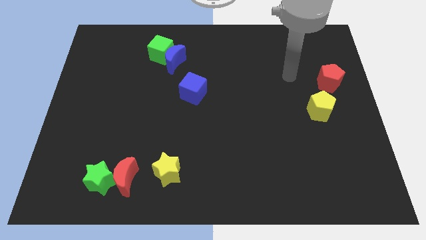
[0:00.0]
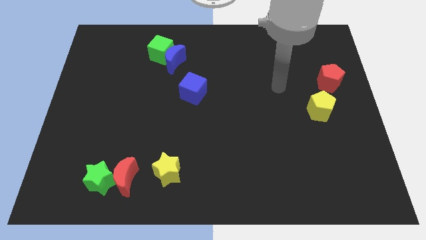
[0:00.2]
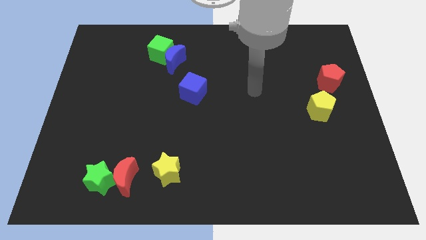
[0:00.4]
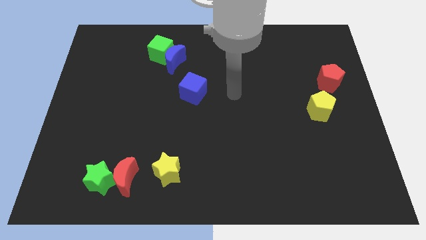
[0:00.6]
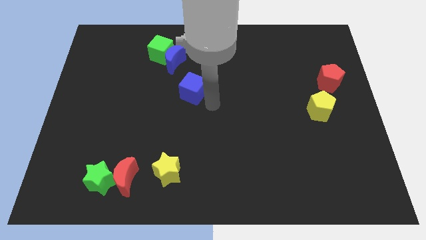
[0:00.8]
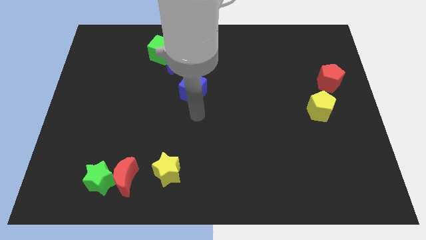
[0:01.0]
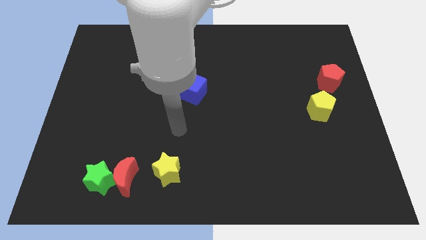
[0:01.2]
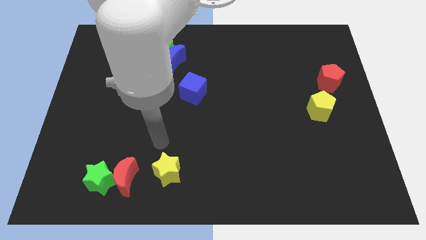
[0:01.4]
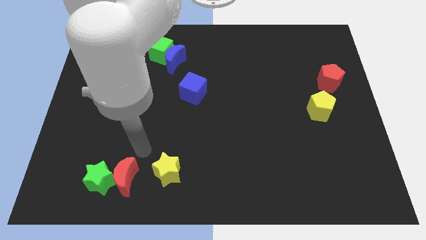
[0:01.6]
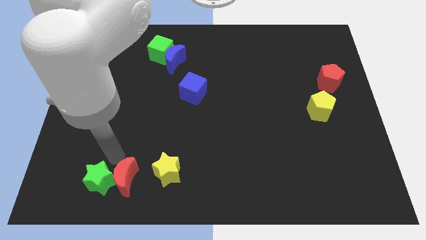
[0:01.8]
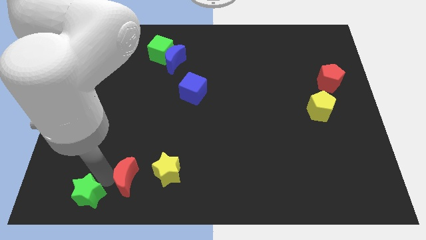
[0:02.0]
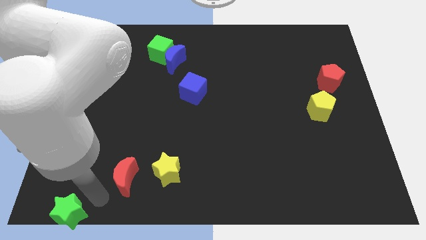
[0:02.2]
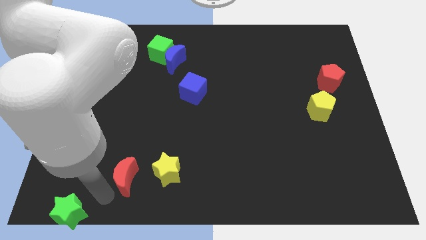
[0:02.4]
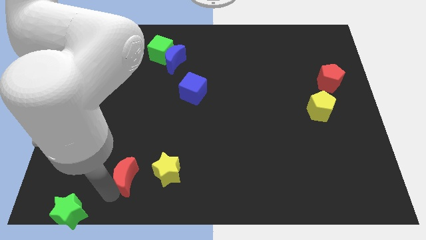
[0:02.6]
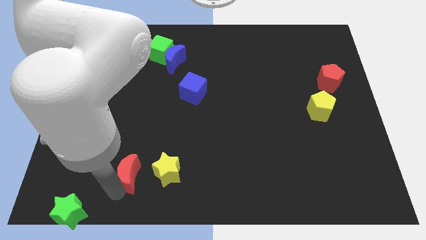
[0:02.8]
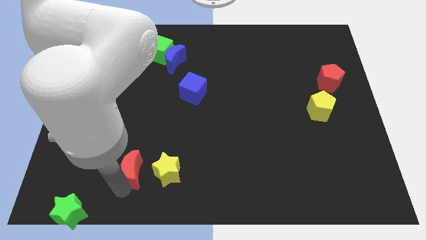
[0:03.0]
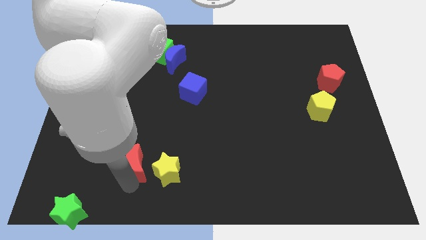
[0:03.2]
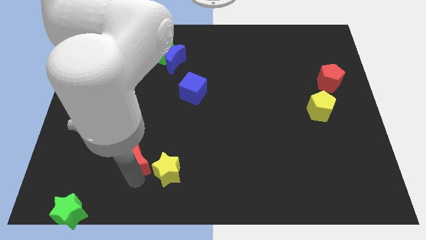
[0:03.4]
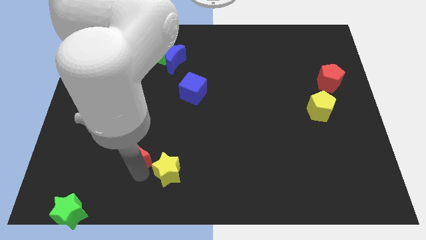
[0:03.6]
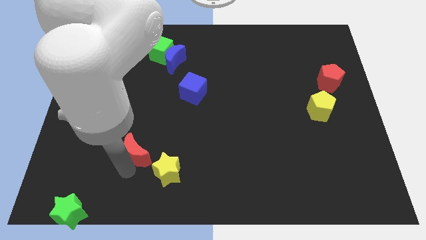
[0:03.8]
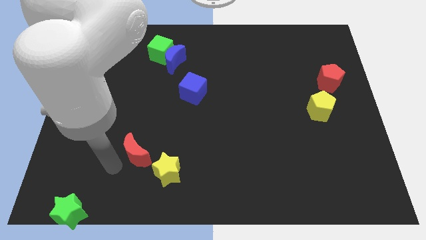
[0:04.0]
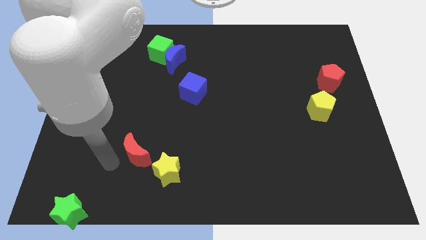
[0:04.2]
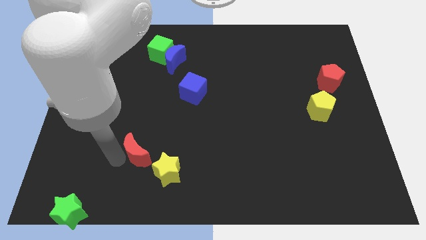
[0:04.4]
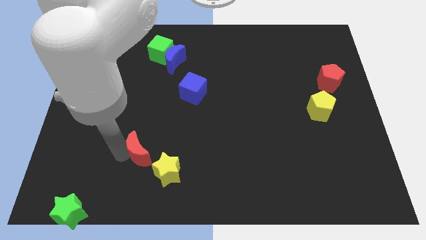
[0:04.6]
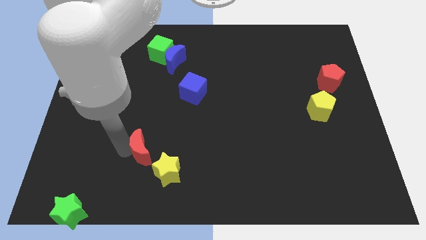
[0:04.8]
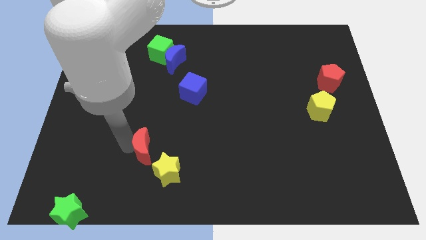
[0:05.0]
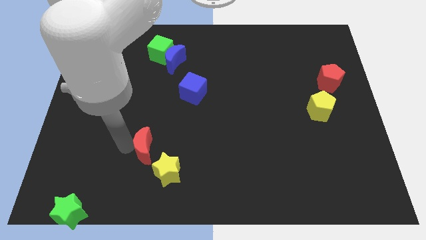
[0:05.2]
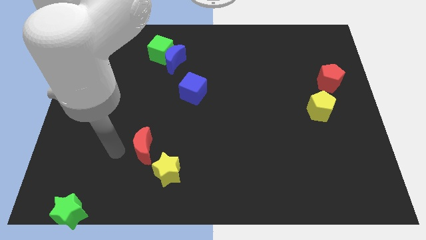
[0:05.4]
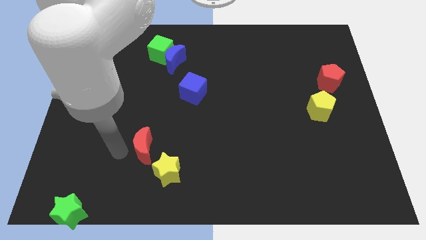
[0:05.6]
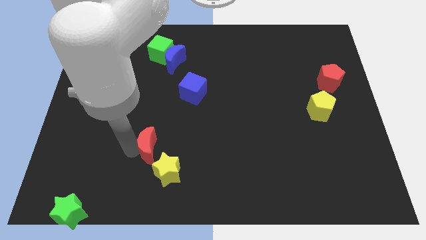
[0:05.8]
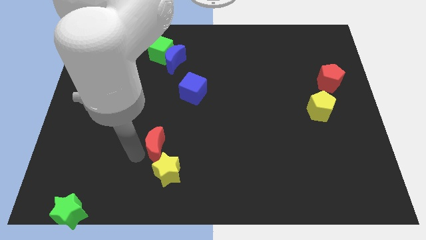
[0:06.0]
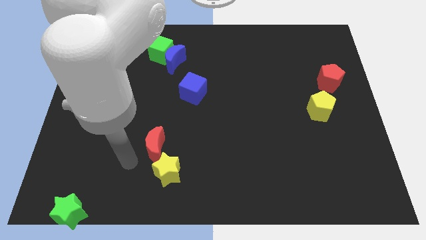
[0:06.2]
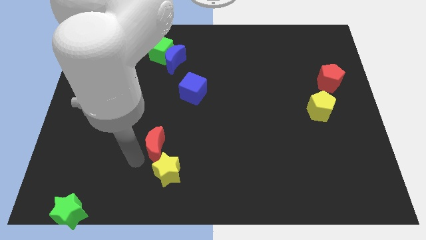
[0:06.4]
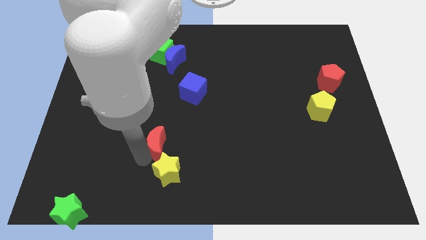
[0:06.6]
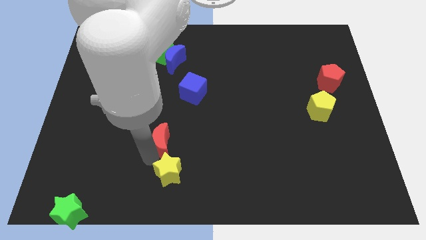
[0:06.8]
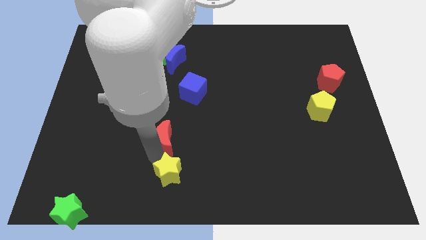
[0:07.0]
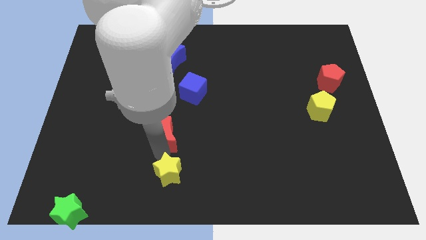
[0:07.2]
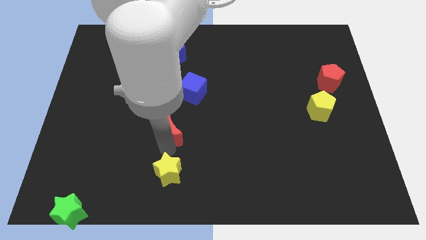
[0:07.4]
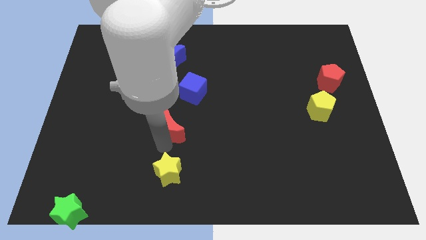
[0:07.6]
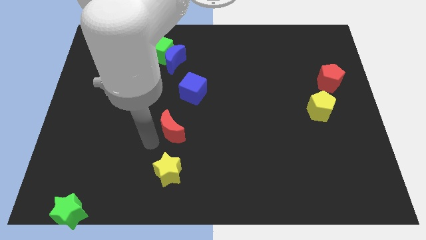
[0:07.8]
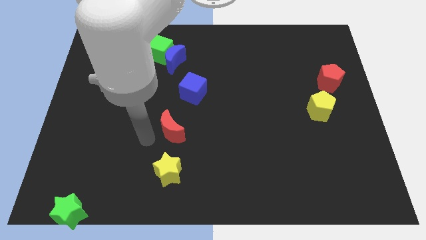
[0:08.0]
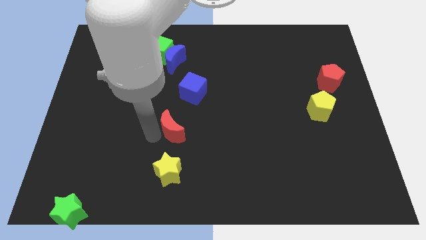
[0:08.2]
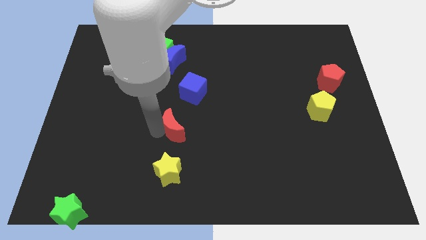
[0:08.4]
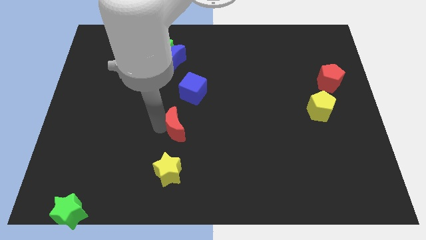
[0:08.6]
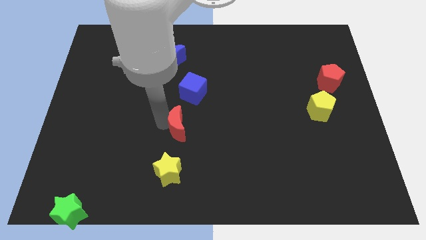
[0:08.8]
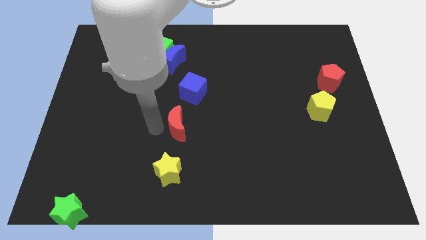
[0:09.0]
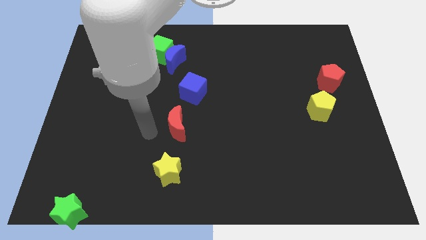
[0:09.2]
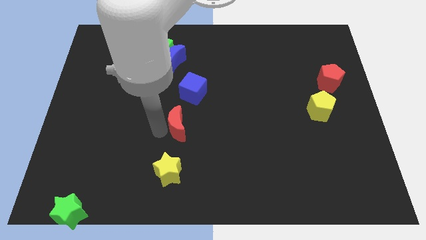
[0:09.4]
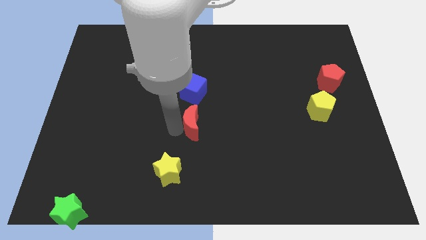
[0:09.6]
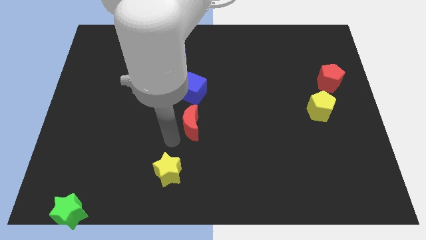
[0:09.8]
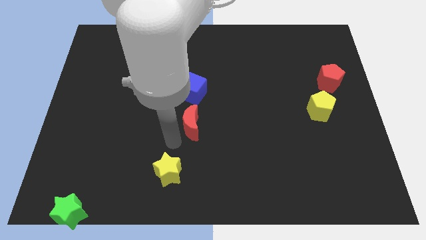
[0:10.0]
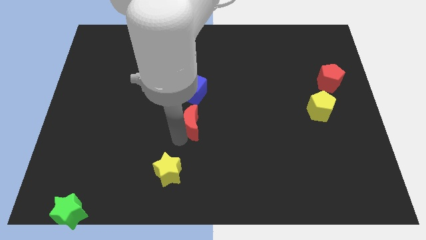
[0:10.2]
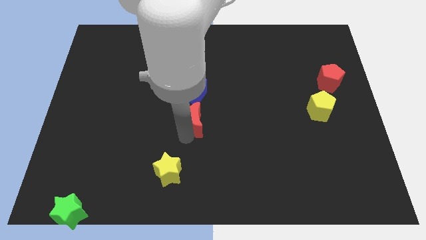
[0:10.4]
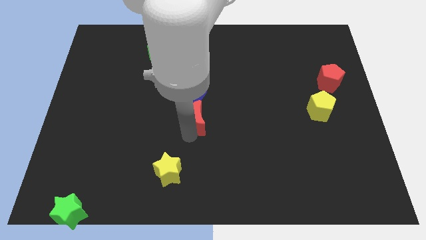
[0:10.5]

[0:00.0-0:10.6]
push the red moon upwards and to the right diagonally

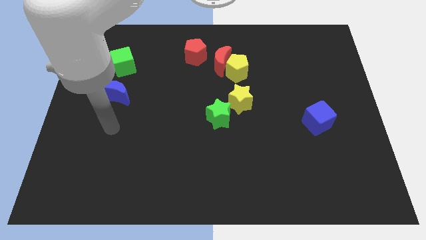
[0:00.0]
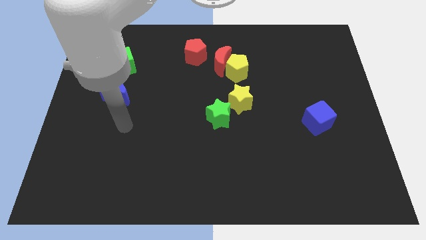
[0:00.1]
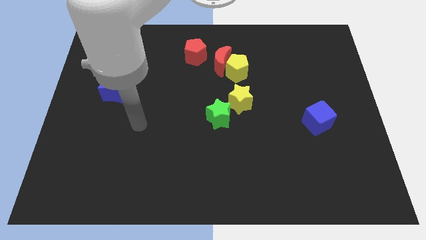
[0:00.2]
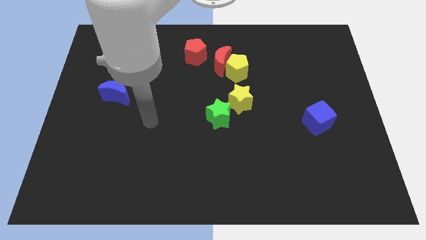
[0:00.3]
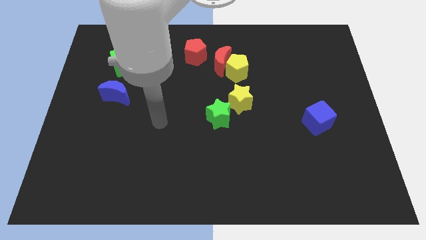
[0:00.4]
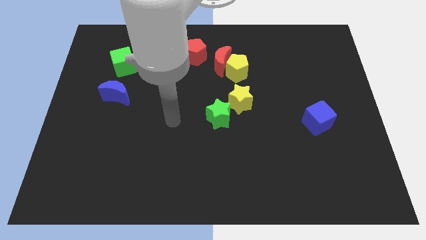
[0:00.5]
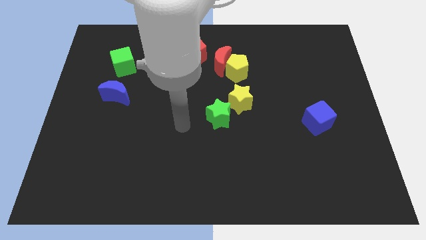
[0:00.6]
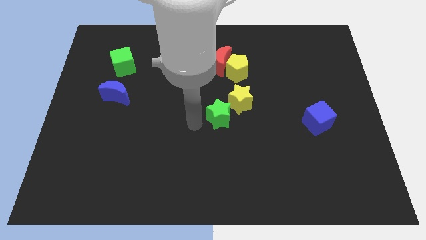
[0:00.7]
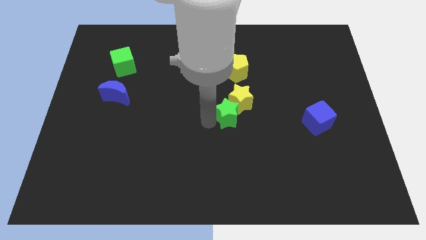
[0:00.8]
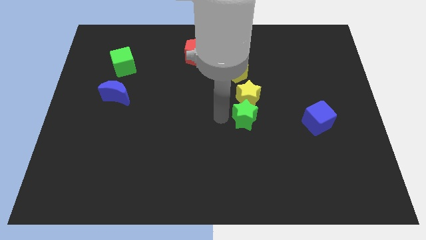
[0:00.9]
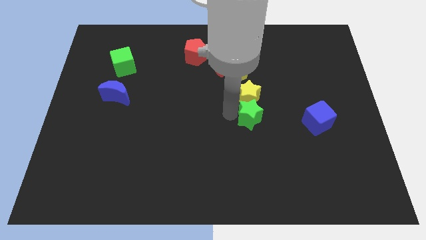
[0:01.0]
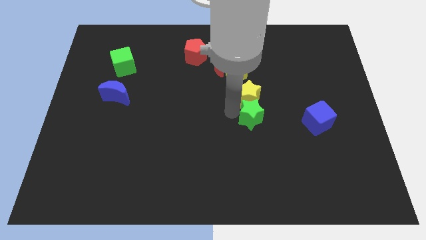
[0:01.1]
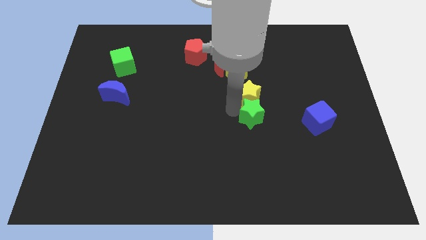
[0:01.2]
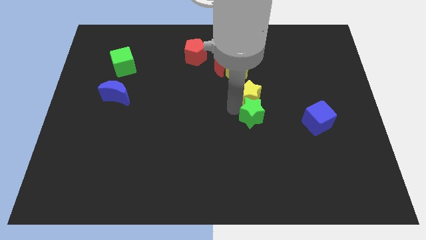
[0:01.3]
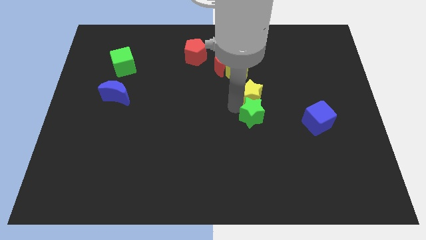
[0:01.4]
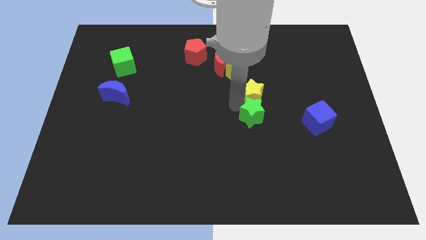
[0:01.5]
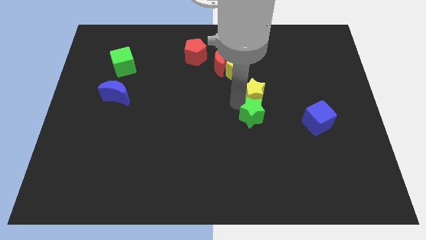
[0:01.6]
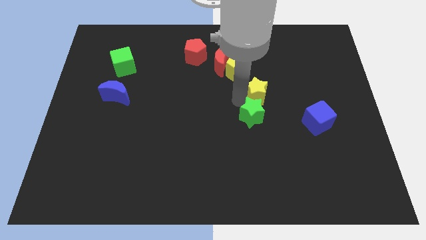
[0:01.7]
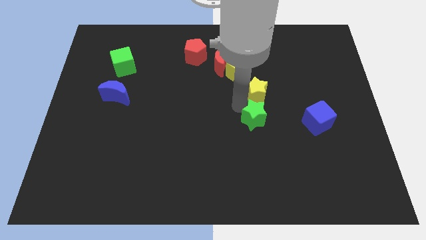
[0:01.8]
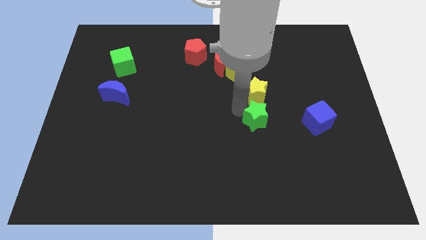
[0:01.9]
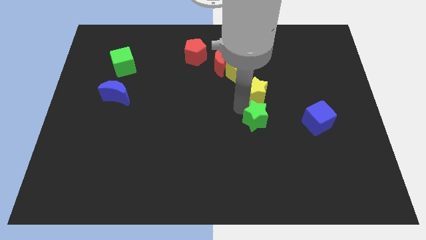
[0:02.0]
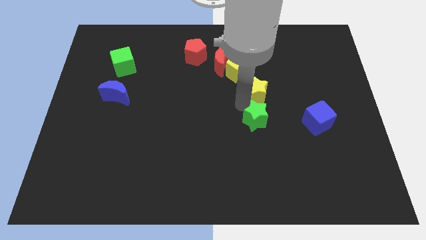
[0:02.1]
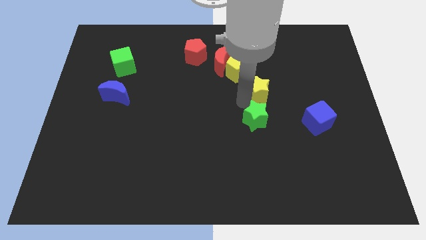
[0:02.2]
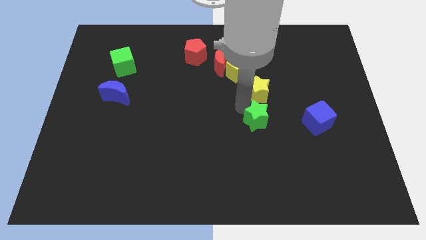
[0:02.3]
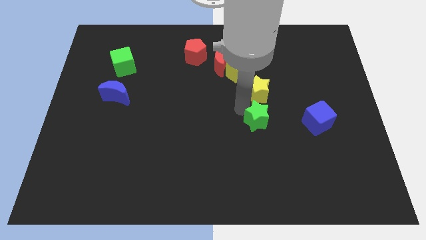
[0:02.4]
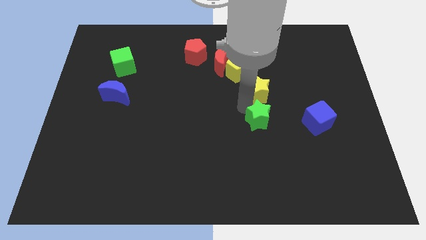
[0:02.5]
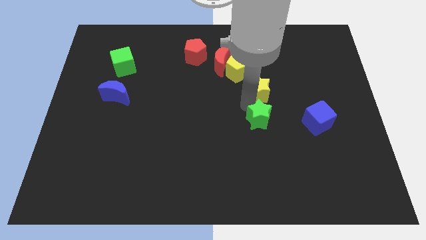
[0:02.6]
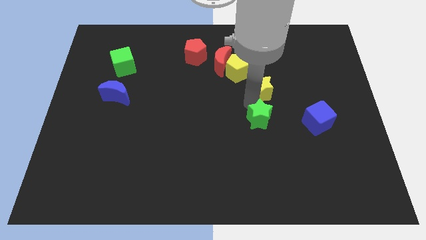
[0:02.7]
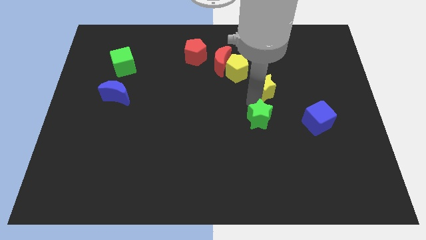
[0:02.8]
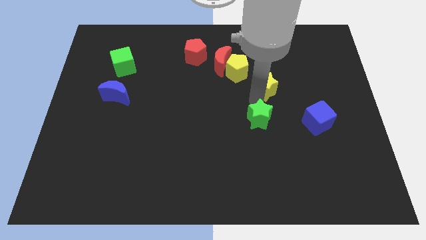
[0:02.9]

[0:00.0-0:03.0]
move the yellow star a little bit upwards and then to the right
